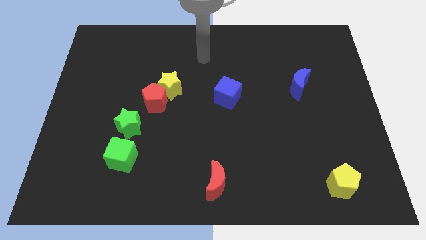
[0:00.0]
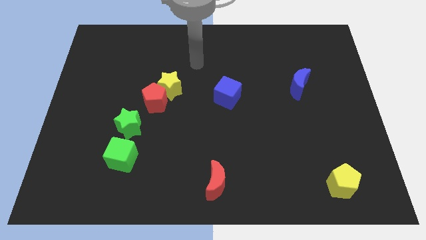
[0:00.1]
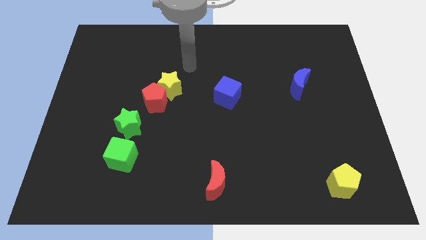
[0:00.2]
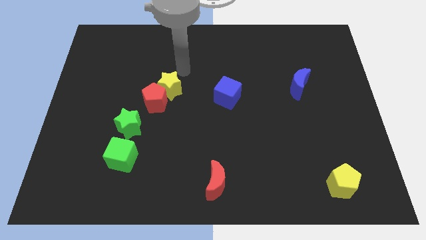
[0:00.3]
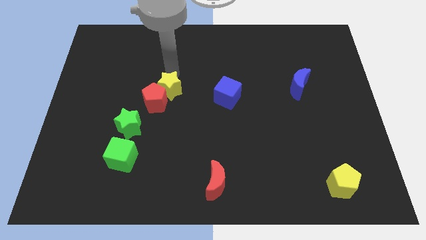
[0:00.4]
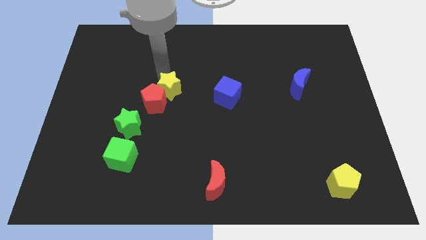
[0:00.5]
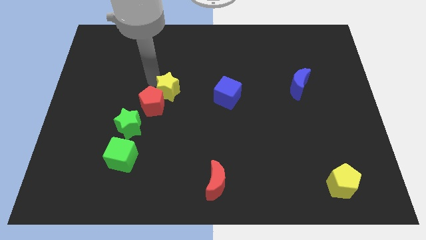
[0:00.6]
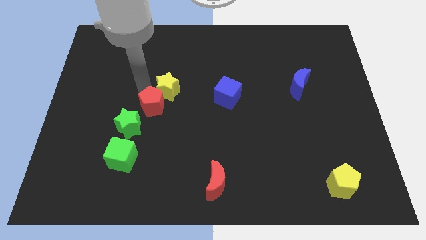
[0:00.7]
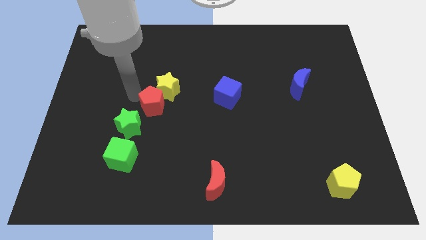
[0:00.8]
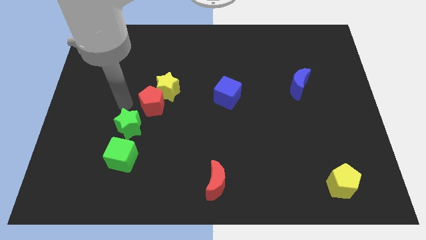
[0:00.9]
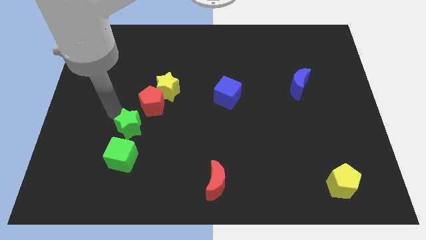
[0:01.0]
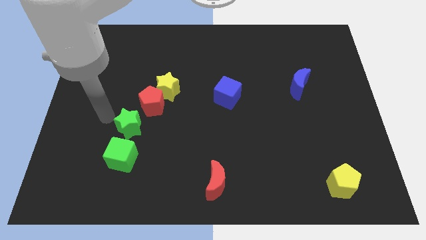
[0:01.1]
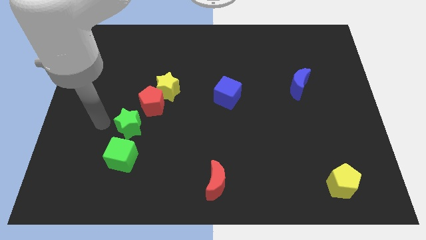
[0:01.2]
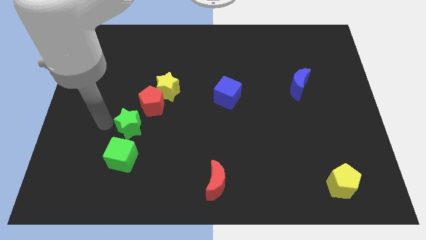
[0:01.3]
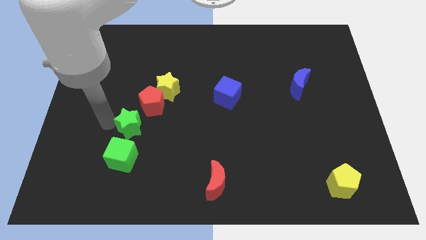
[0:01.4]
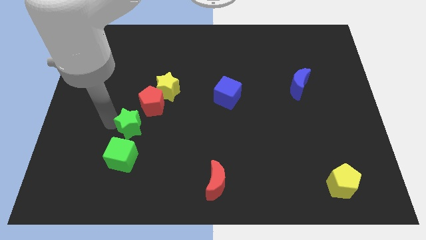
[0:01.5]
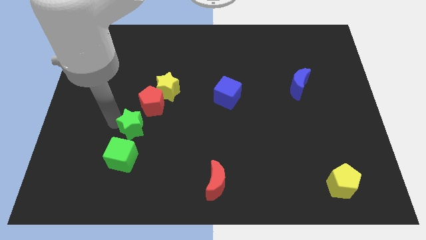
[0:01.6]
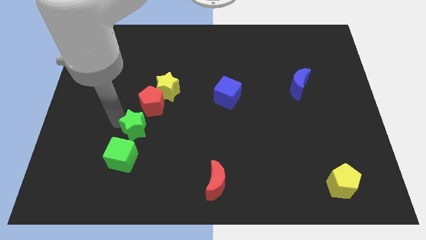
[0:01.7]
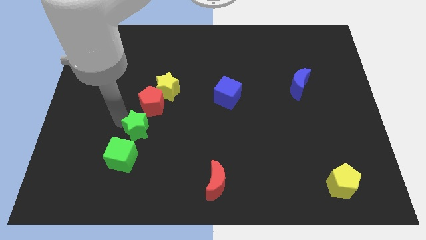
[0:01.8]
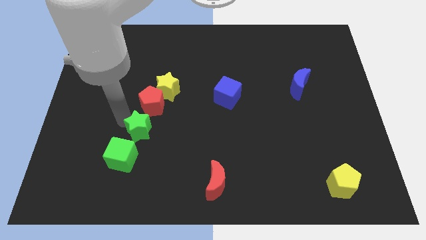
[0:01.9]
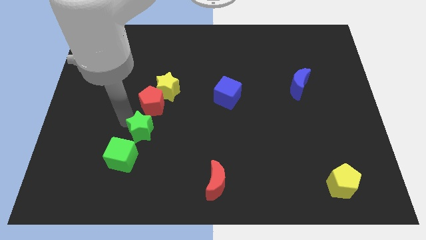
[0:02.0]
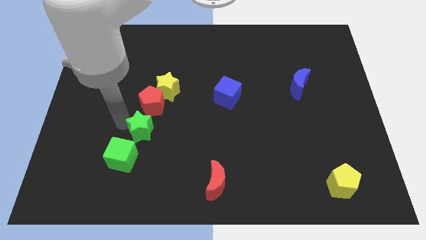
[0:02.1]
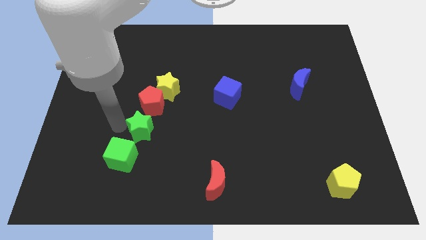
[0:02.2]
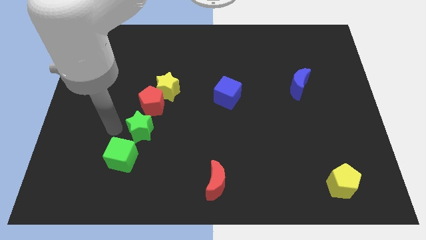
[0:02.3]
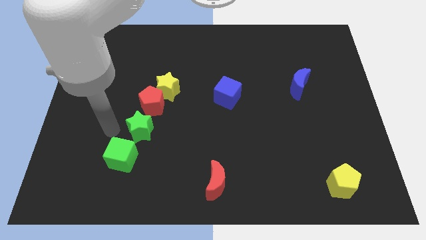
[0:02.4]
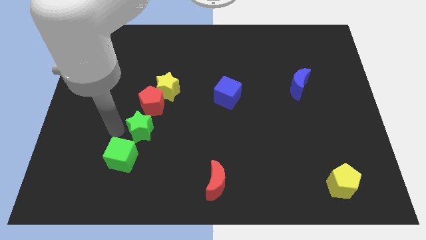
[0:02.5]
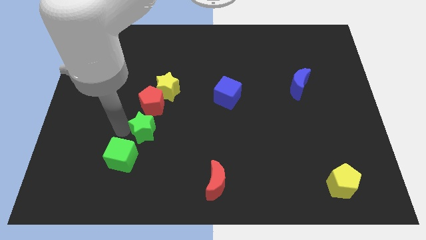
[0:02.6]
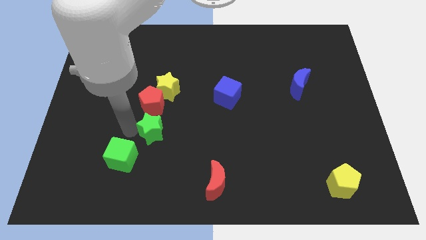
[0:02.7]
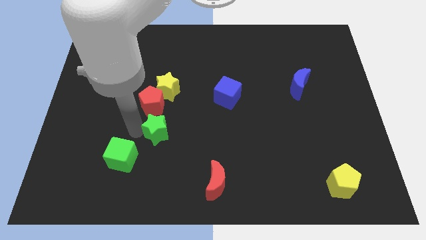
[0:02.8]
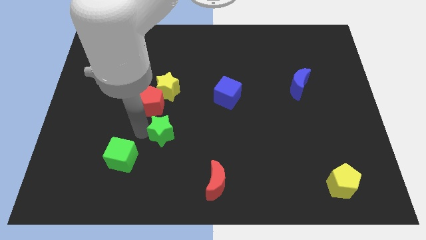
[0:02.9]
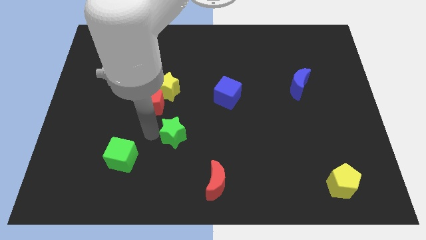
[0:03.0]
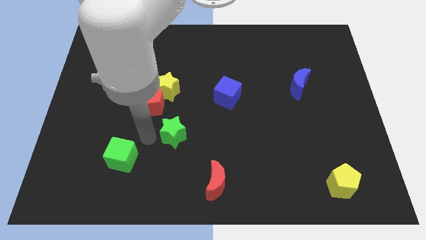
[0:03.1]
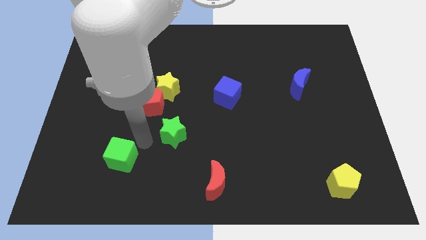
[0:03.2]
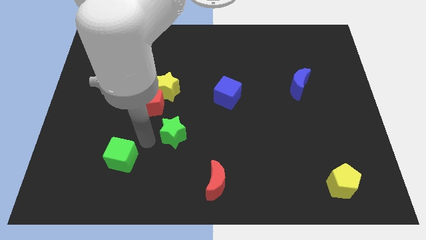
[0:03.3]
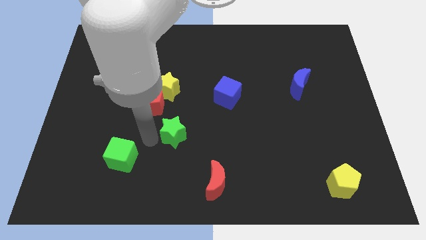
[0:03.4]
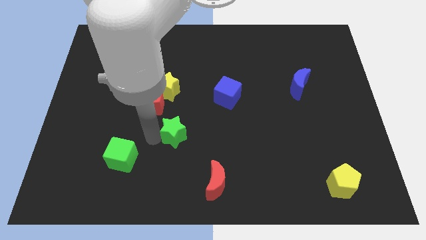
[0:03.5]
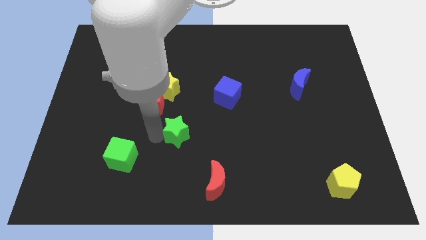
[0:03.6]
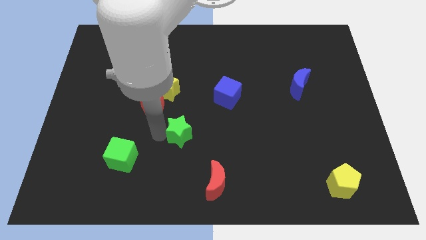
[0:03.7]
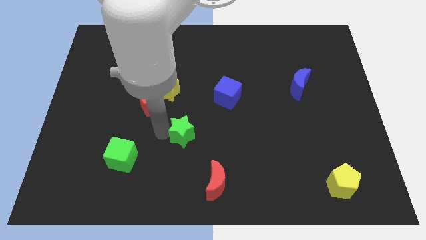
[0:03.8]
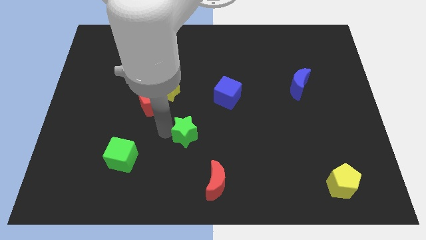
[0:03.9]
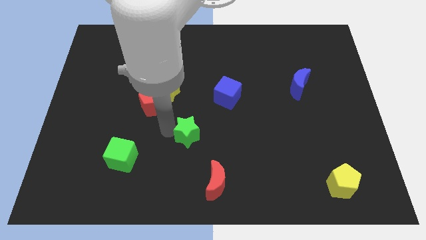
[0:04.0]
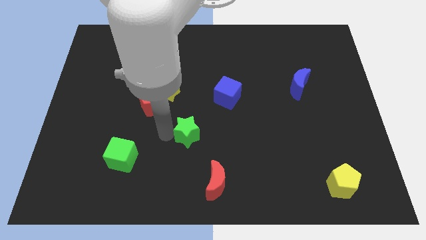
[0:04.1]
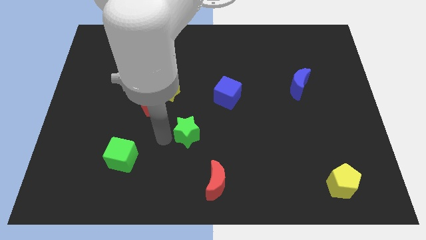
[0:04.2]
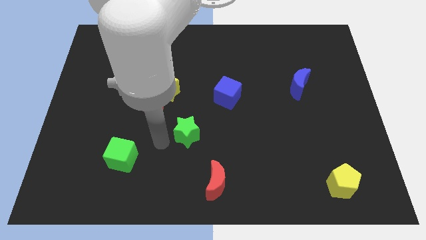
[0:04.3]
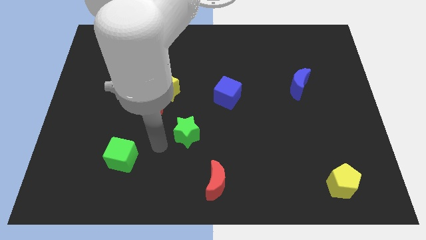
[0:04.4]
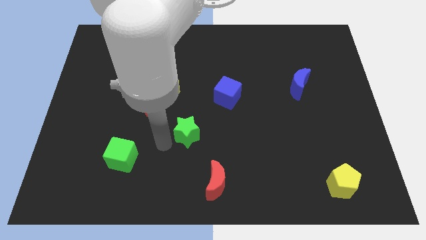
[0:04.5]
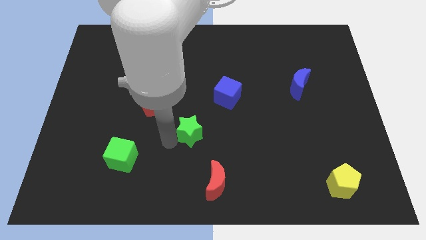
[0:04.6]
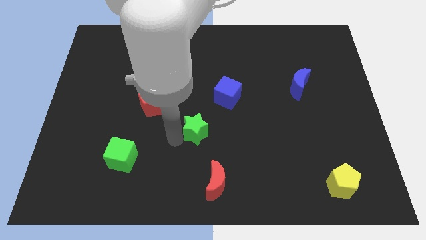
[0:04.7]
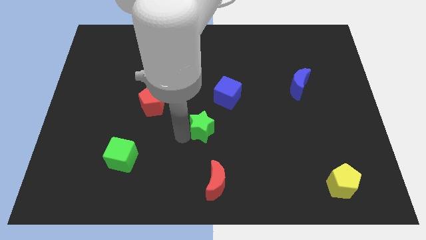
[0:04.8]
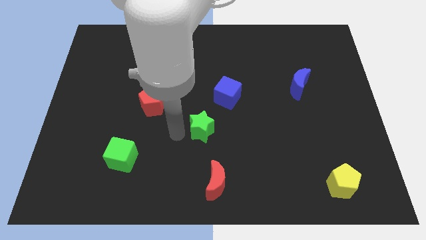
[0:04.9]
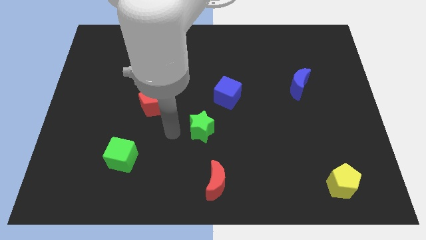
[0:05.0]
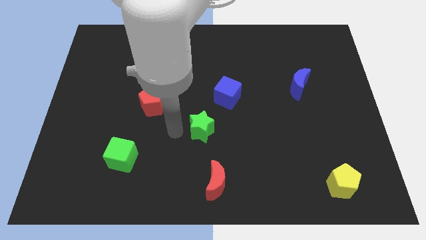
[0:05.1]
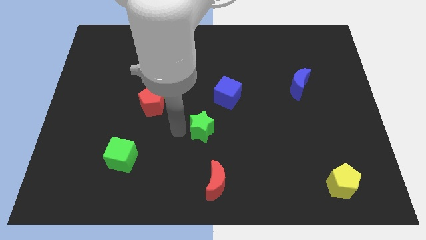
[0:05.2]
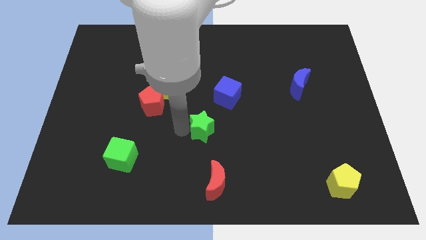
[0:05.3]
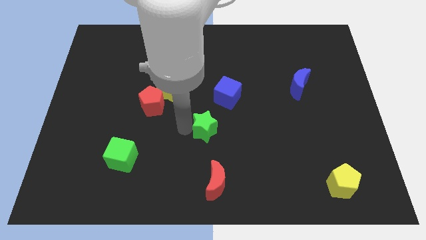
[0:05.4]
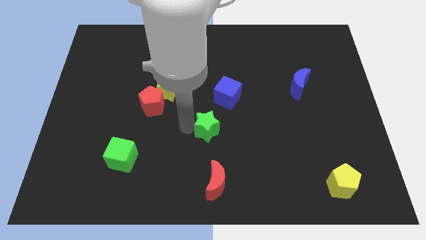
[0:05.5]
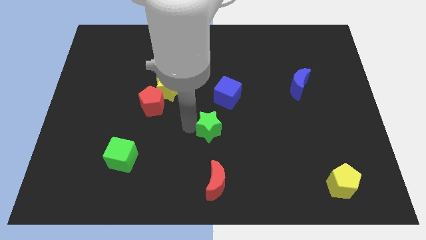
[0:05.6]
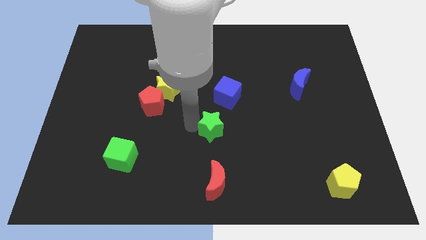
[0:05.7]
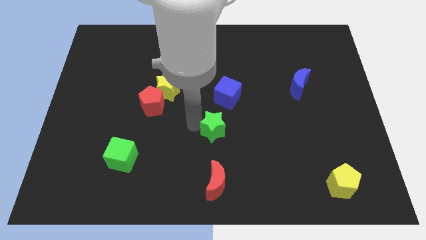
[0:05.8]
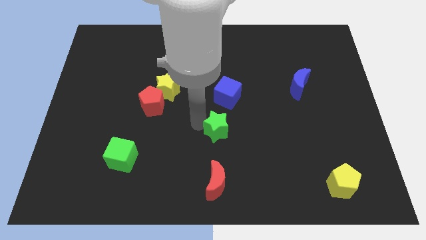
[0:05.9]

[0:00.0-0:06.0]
slide the green star to the right

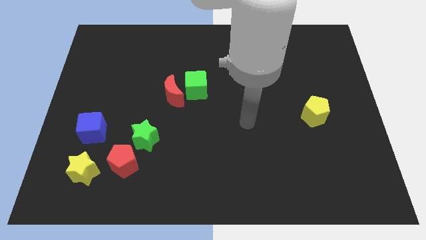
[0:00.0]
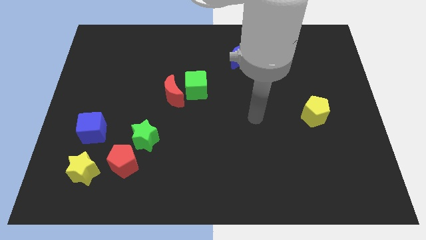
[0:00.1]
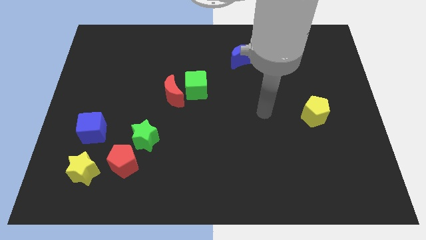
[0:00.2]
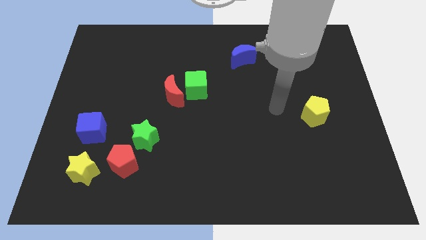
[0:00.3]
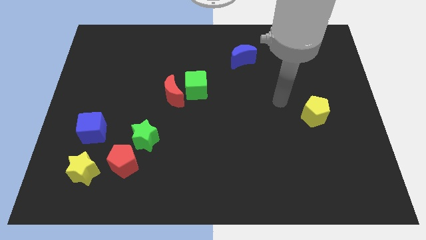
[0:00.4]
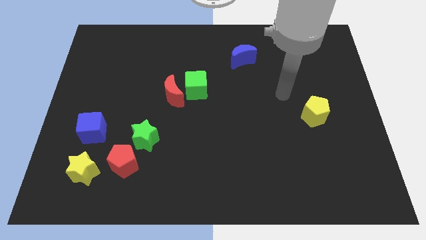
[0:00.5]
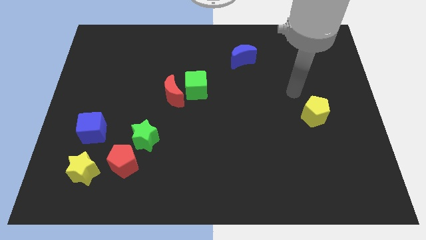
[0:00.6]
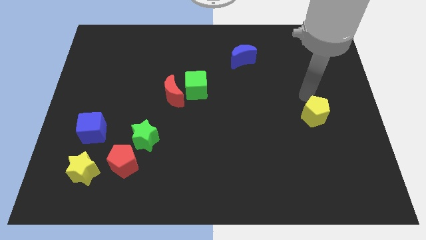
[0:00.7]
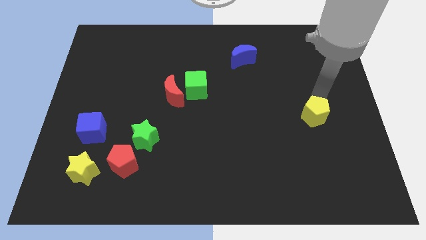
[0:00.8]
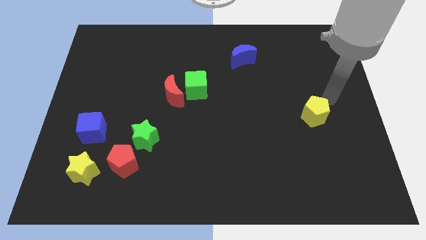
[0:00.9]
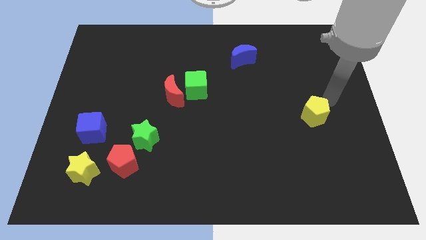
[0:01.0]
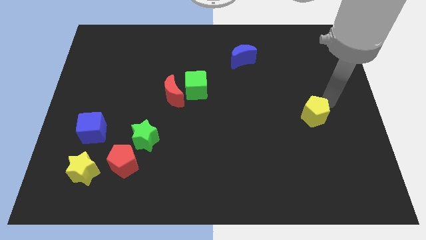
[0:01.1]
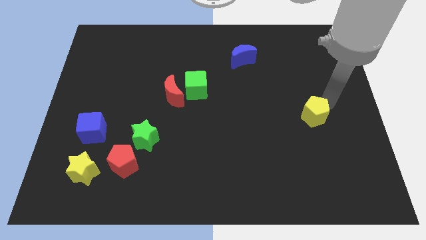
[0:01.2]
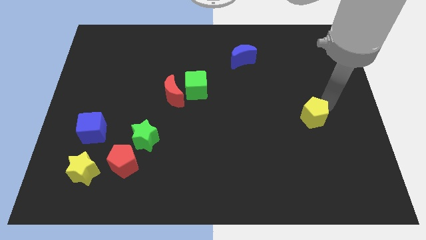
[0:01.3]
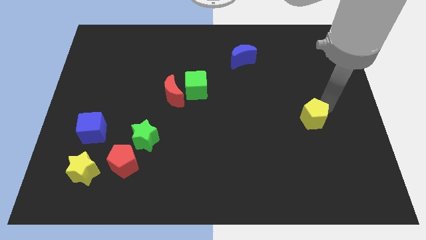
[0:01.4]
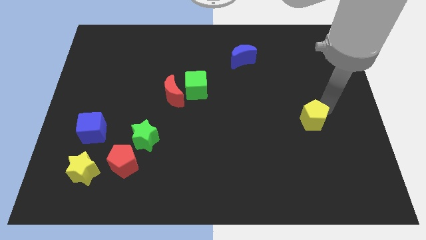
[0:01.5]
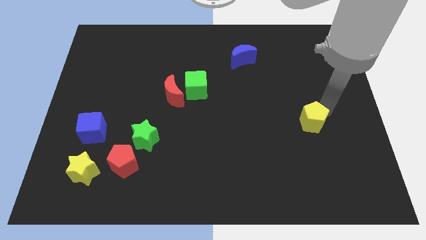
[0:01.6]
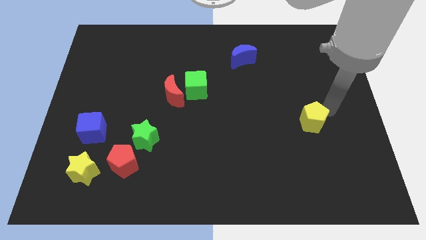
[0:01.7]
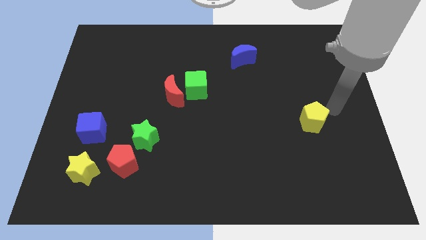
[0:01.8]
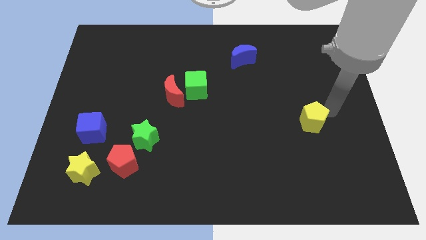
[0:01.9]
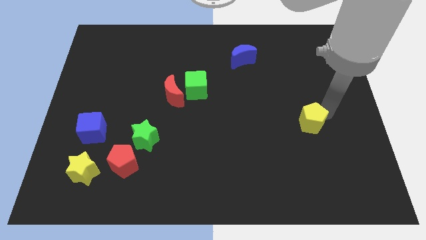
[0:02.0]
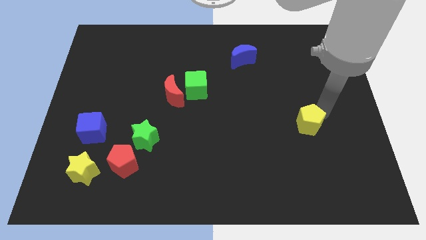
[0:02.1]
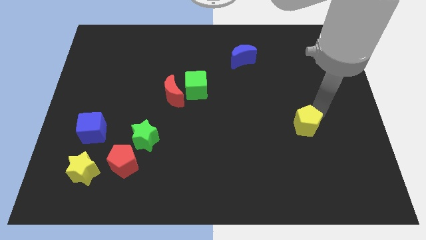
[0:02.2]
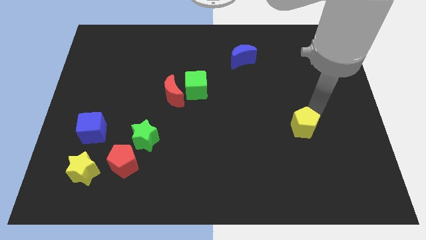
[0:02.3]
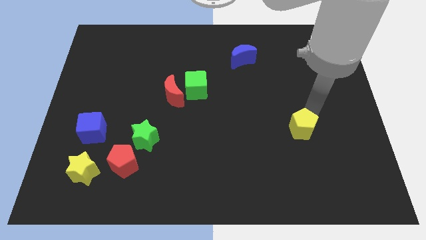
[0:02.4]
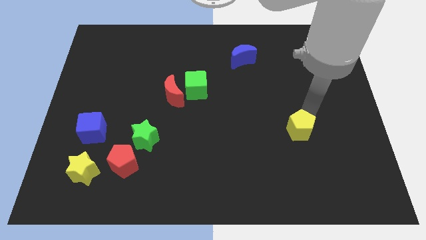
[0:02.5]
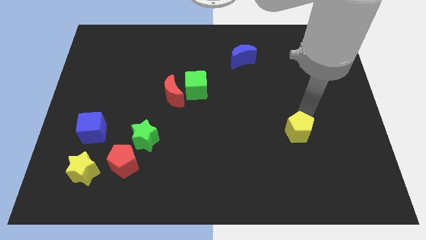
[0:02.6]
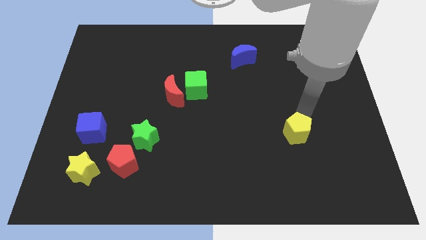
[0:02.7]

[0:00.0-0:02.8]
push the yellow pentagon diagonally down and to the left somewhat
